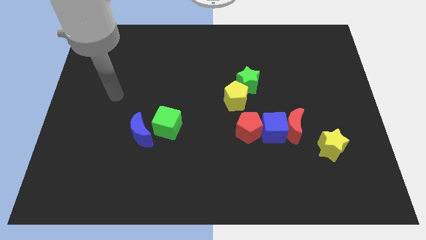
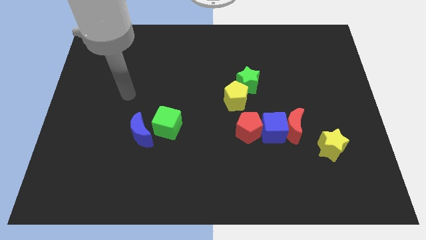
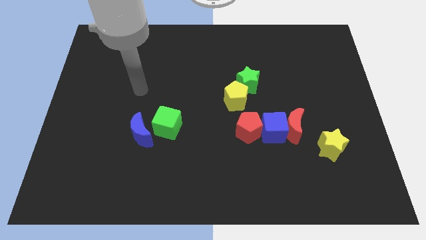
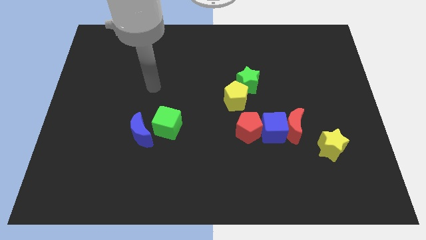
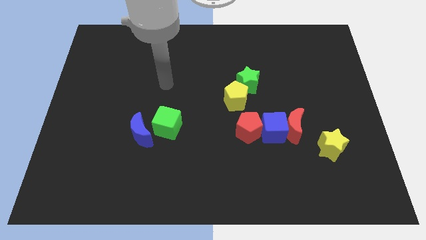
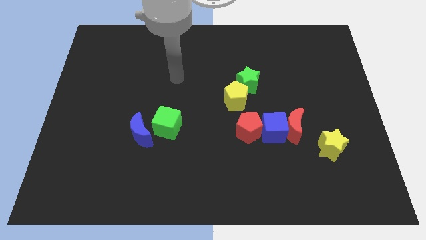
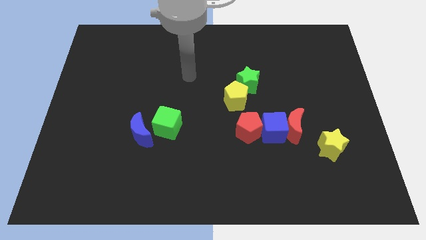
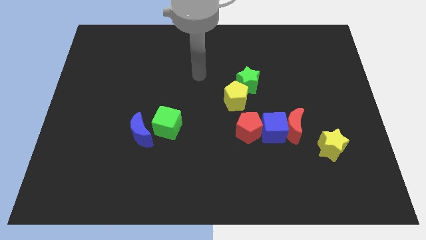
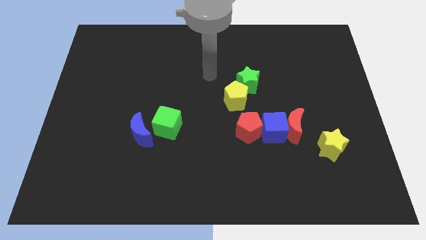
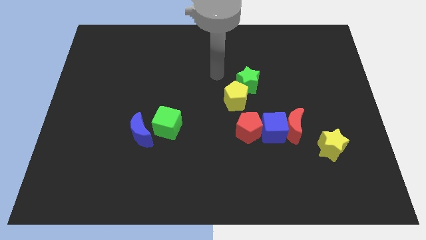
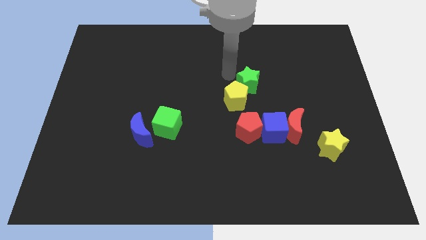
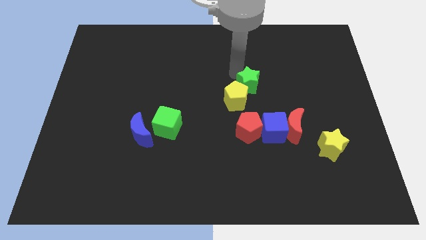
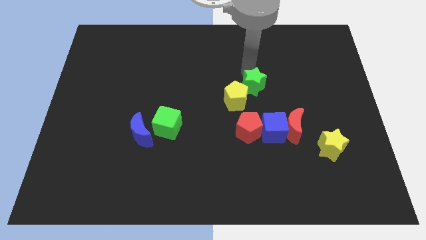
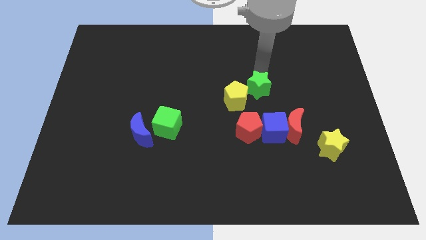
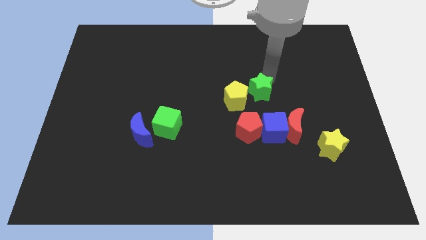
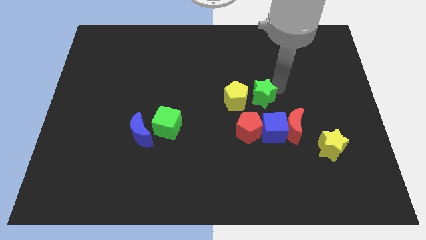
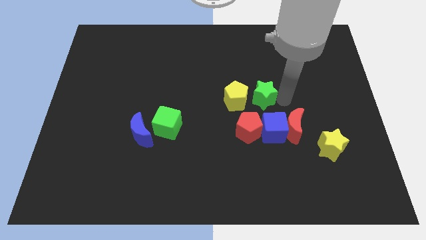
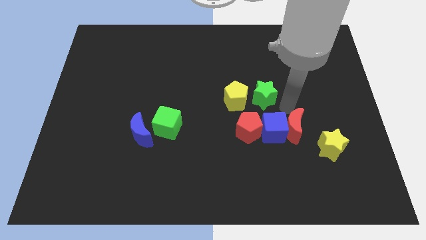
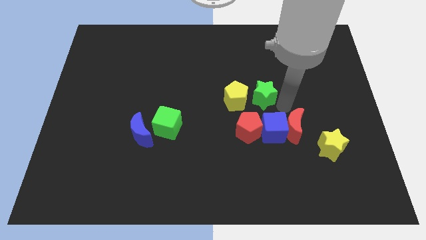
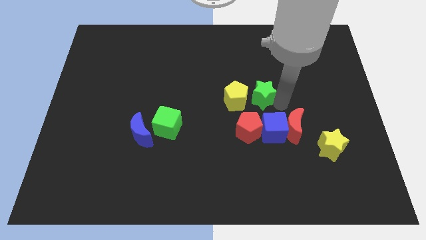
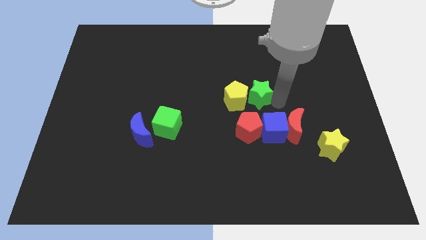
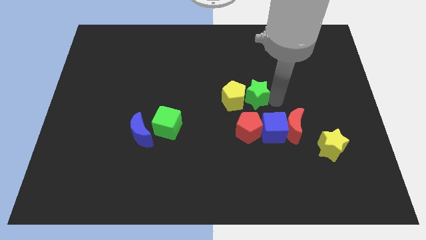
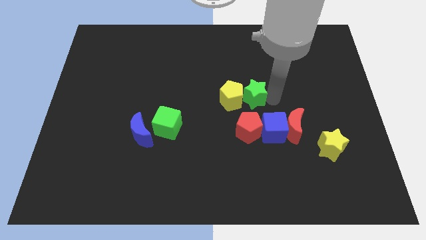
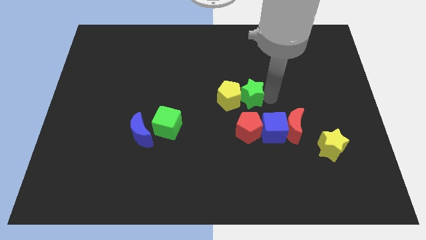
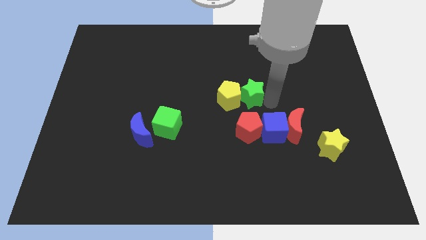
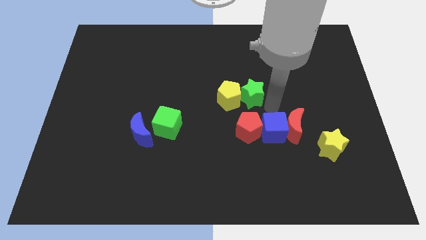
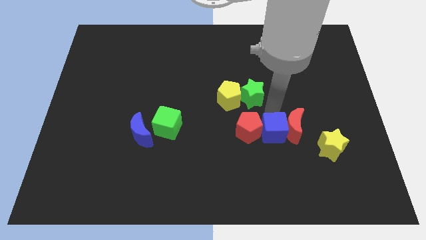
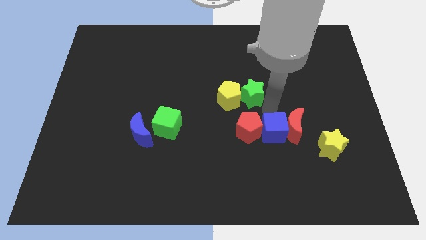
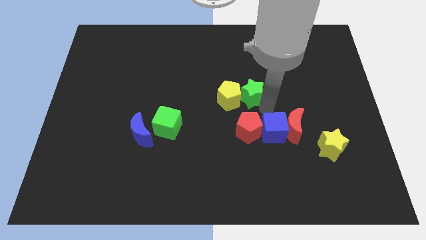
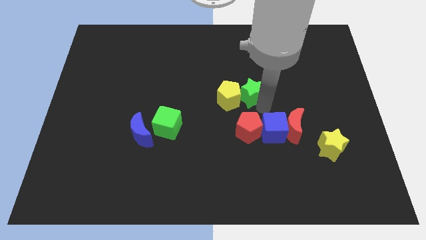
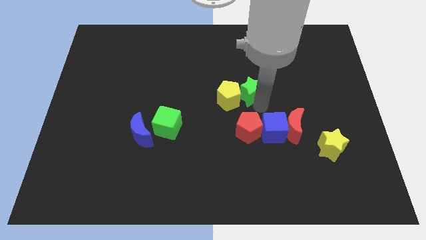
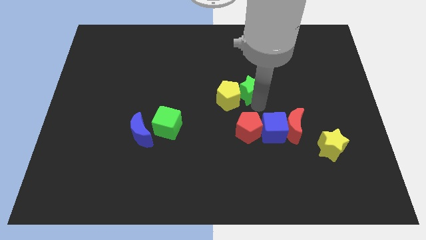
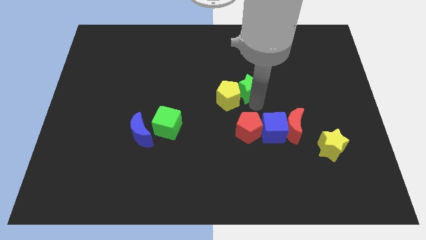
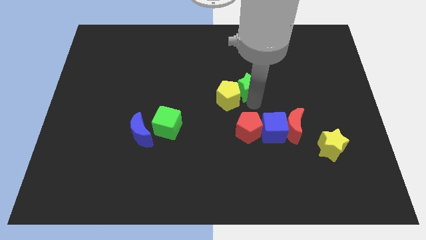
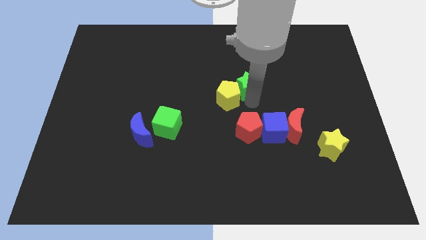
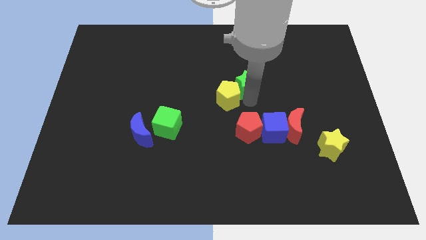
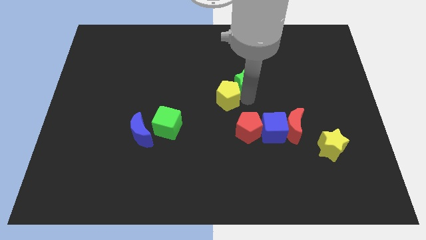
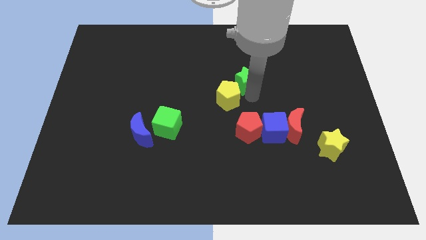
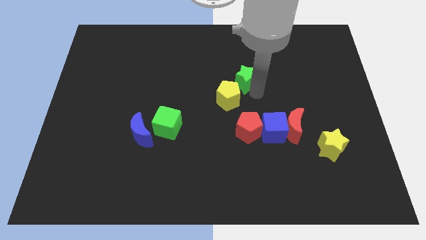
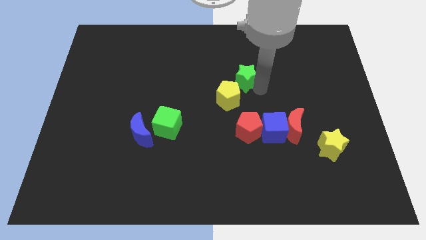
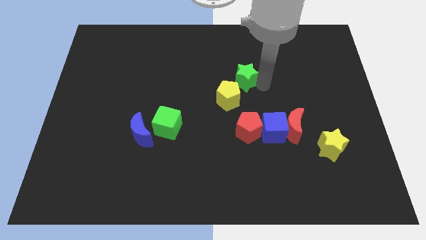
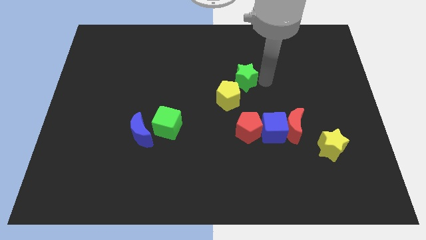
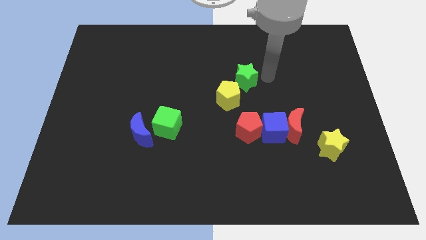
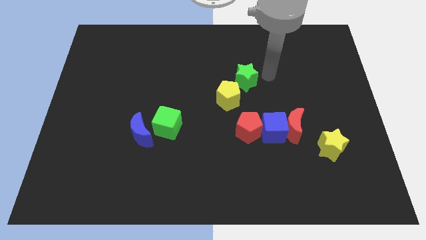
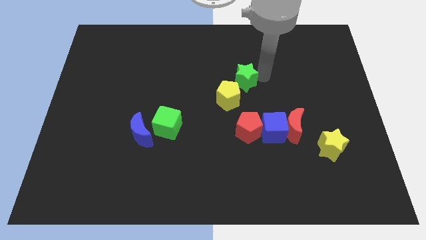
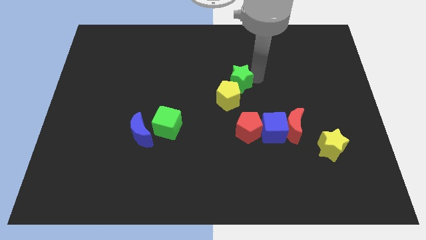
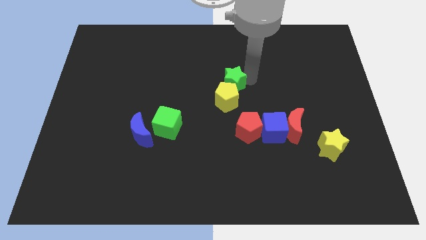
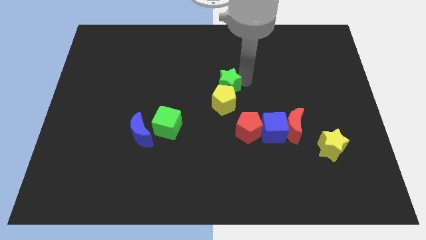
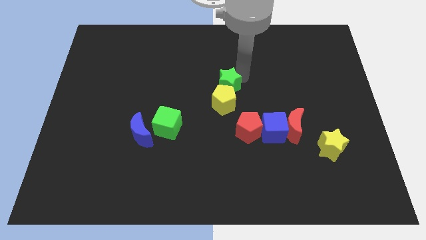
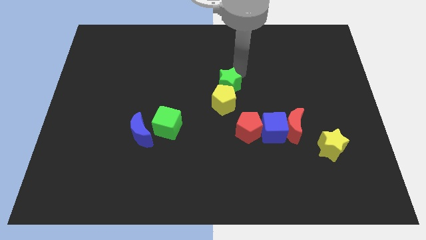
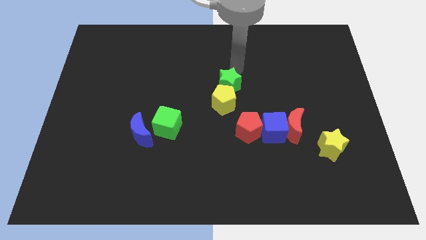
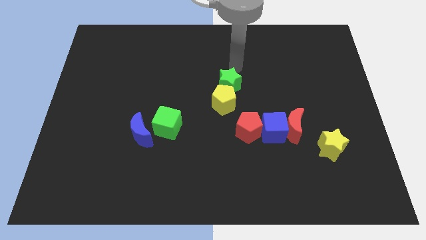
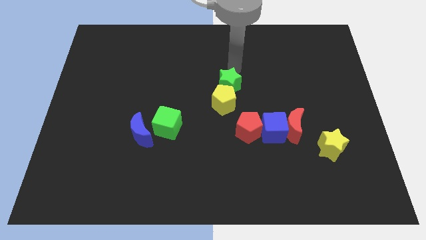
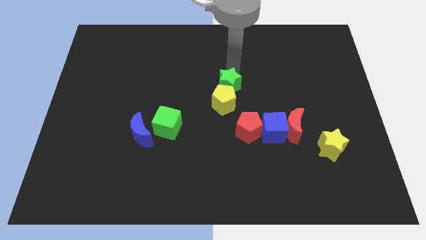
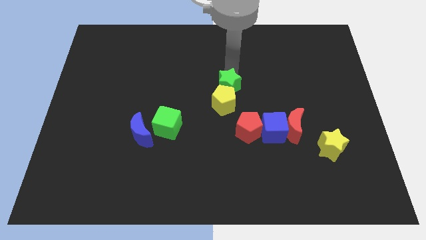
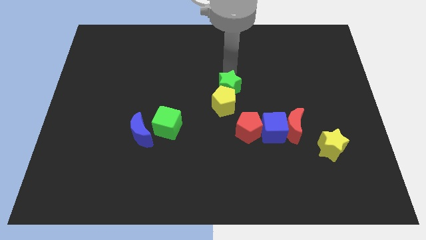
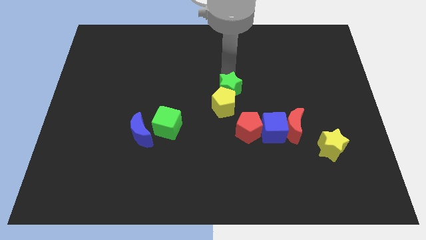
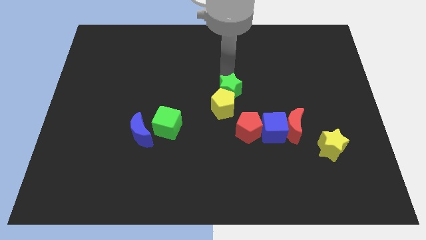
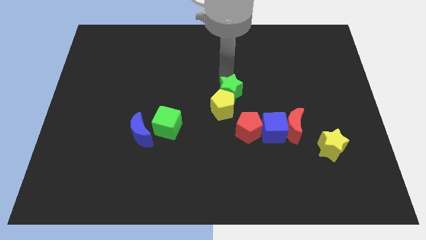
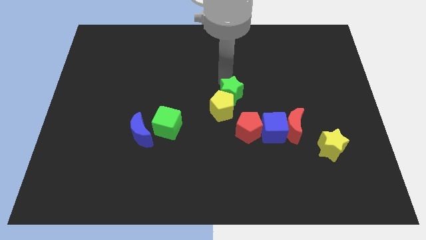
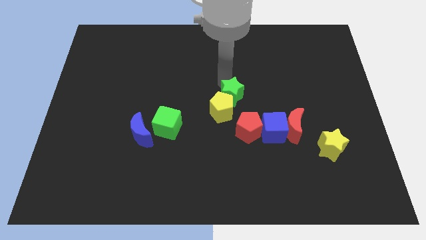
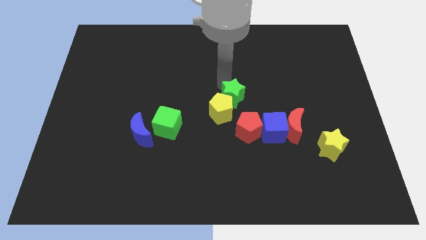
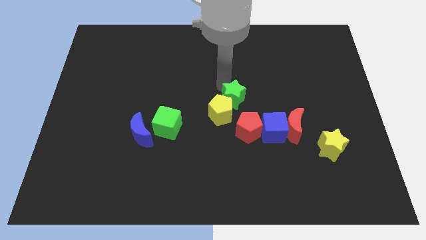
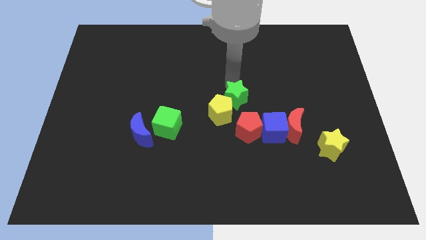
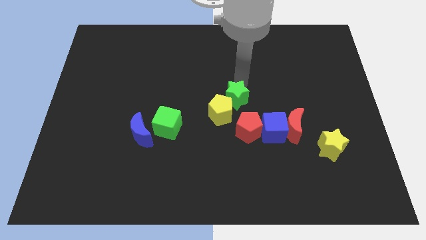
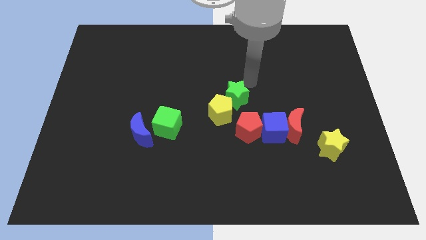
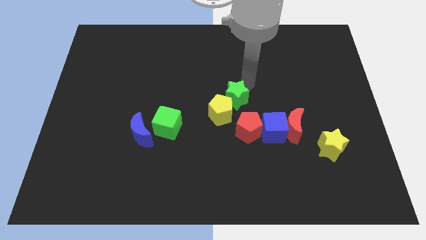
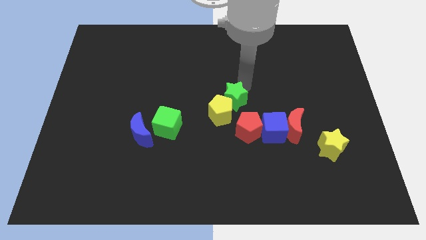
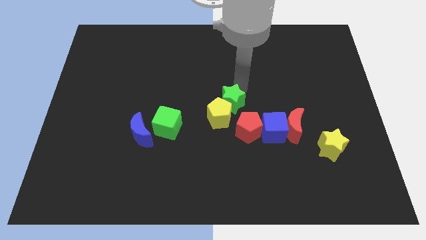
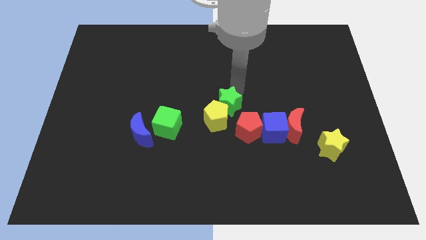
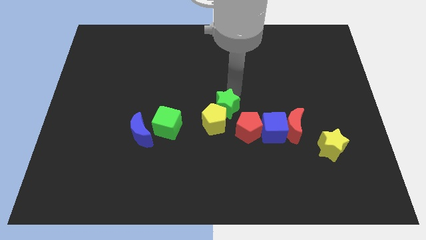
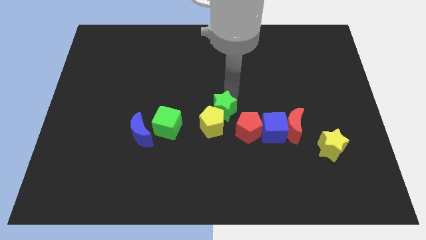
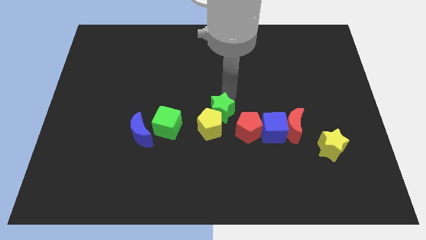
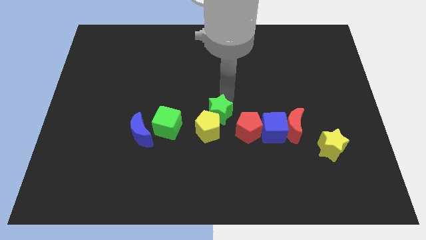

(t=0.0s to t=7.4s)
move the green star to the left of the red pentagon
